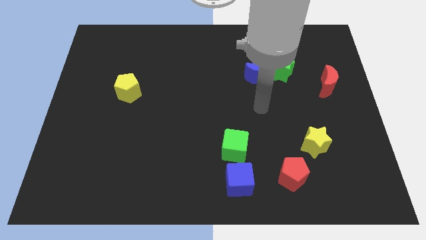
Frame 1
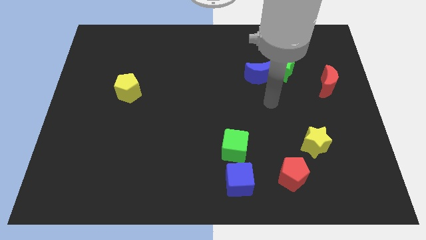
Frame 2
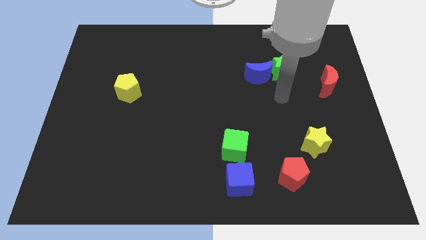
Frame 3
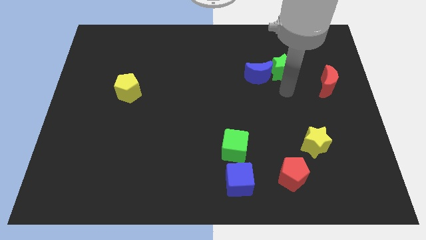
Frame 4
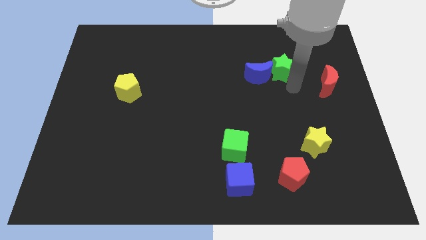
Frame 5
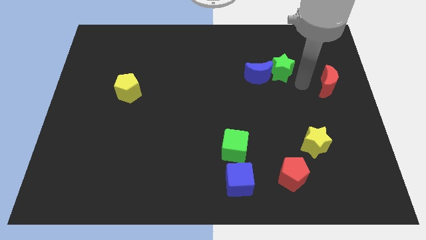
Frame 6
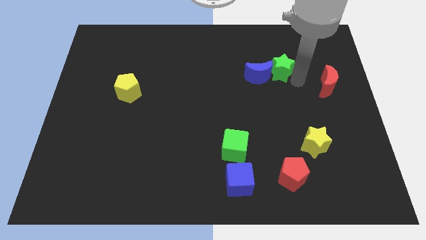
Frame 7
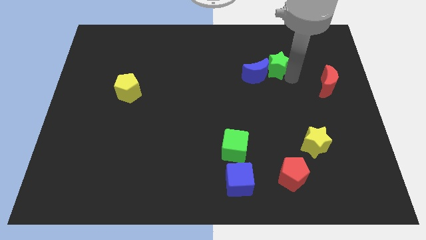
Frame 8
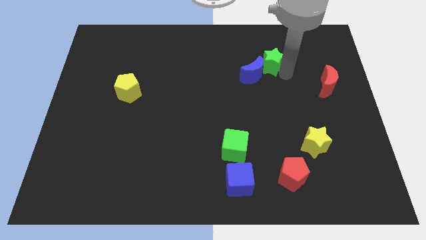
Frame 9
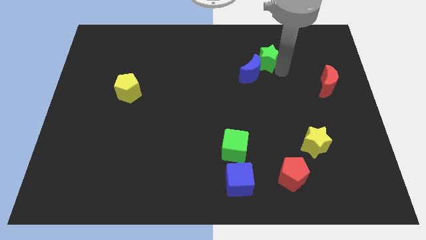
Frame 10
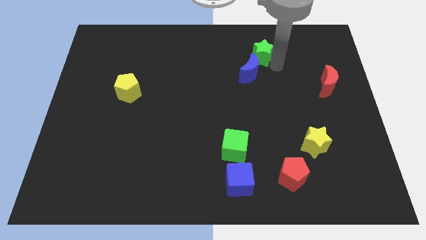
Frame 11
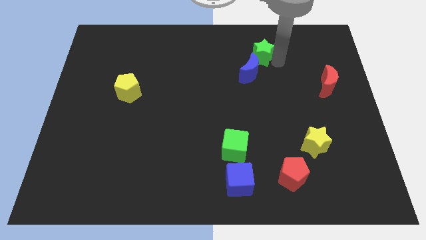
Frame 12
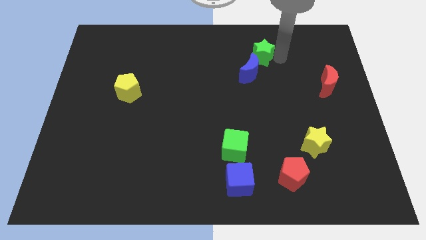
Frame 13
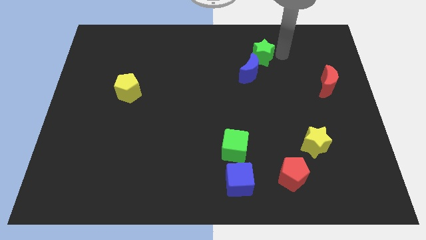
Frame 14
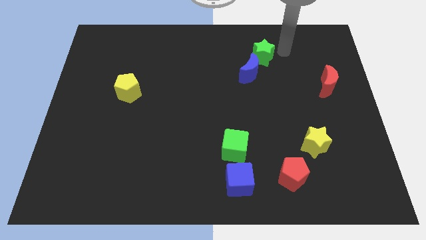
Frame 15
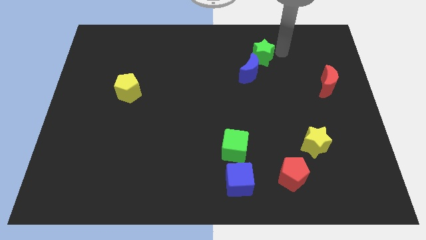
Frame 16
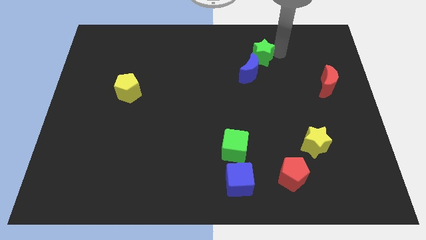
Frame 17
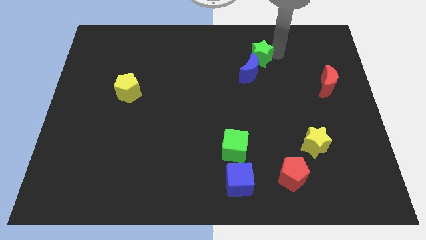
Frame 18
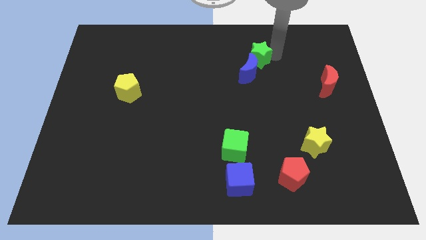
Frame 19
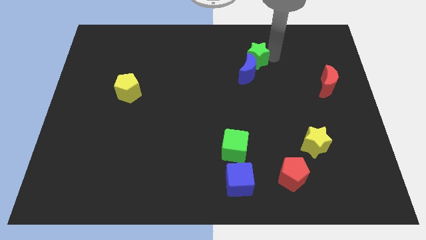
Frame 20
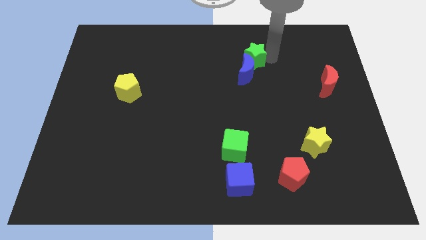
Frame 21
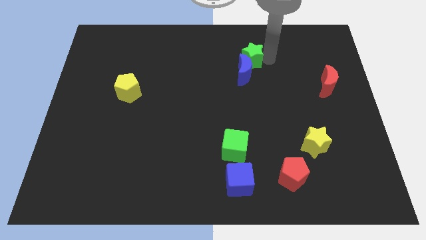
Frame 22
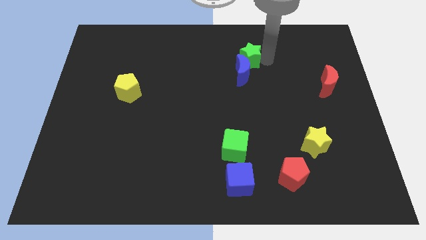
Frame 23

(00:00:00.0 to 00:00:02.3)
slide the green star left a little bit

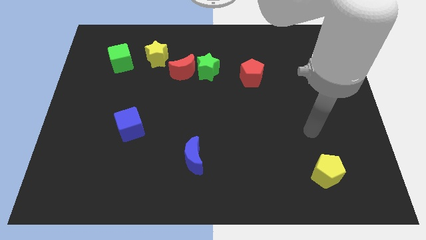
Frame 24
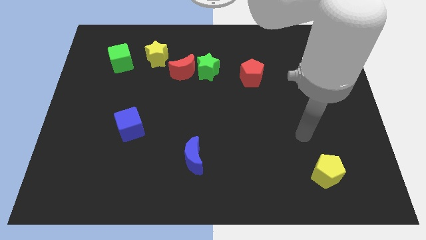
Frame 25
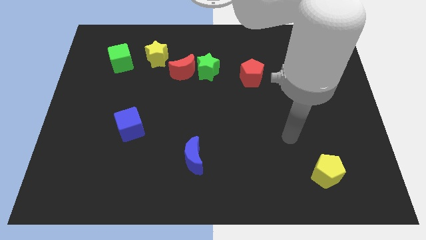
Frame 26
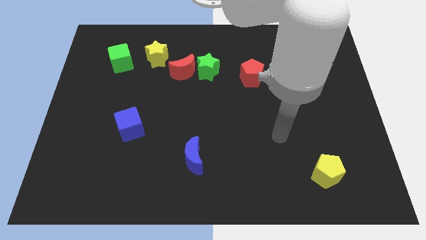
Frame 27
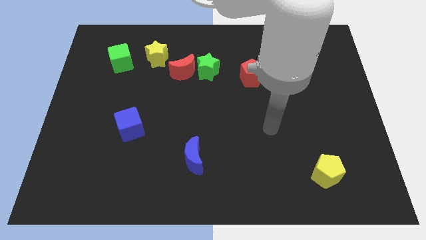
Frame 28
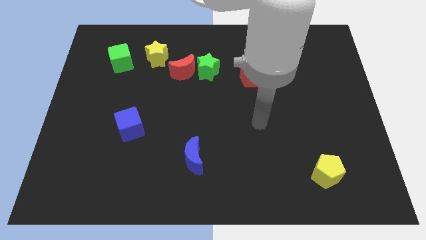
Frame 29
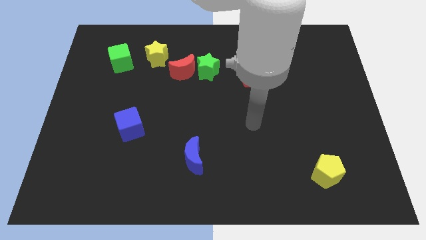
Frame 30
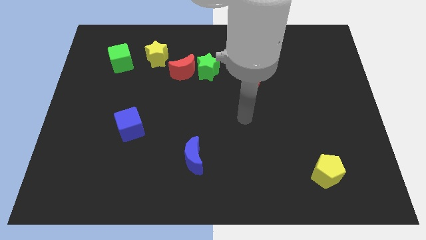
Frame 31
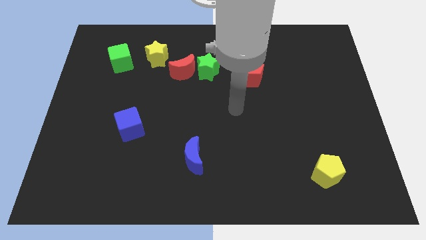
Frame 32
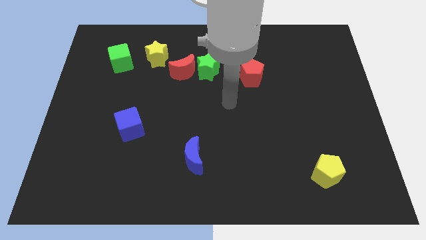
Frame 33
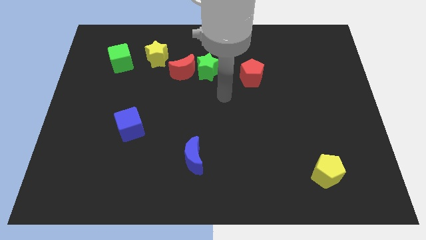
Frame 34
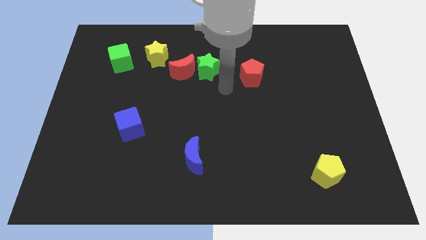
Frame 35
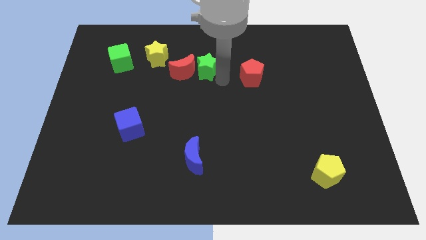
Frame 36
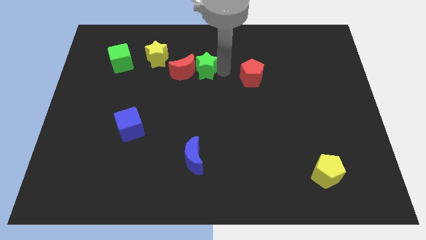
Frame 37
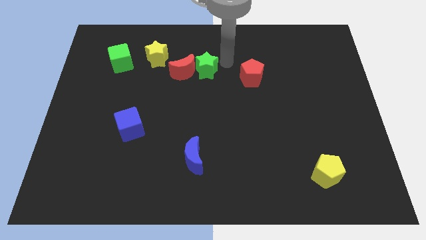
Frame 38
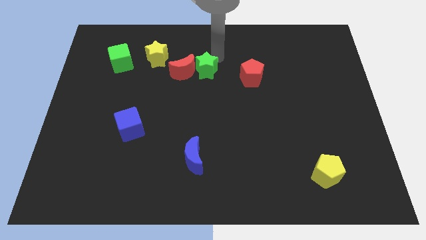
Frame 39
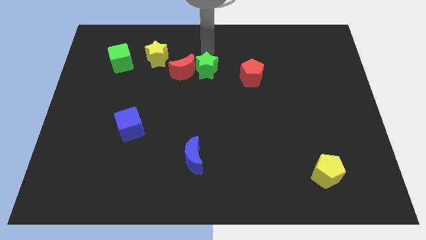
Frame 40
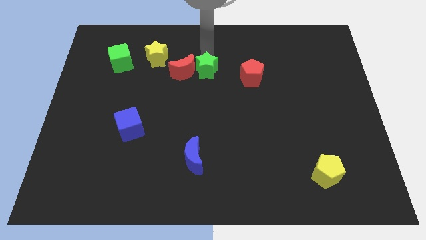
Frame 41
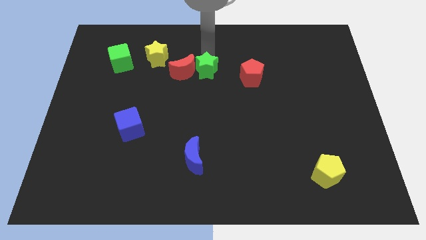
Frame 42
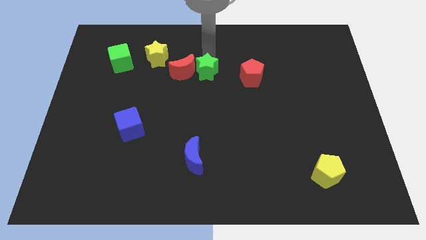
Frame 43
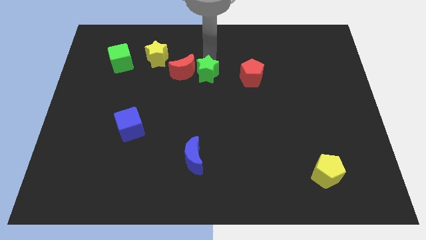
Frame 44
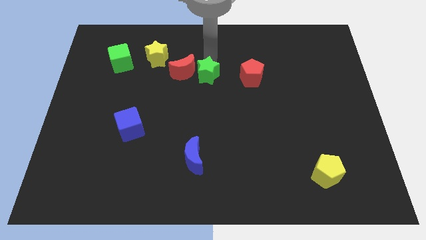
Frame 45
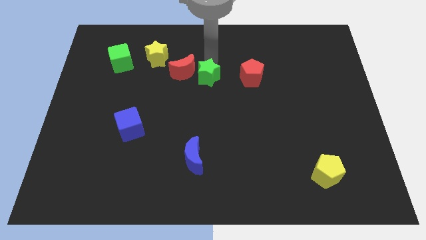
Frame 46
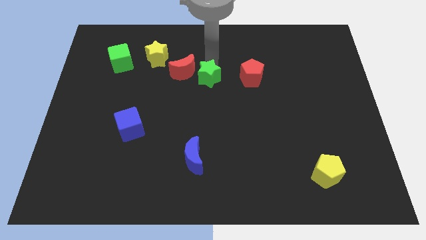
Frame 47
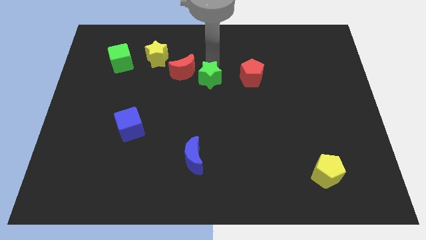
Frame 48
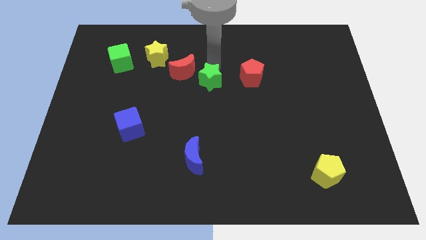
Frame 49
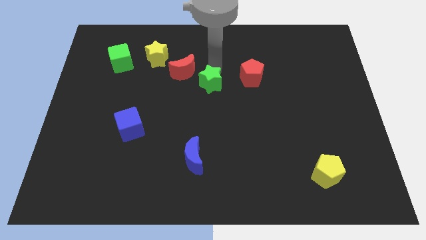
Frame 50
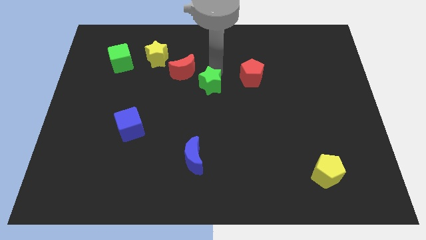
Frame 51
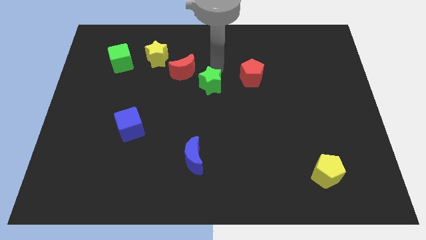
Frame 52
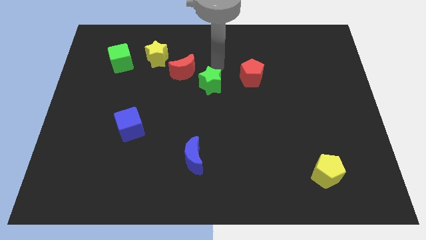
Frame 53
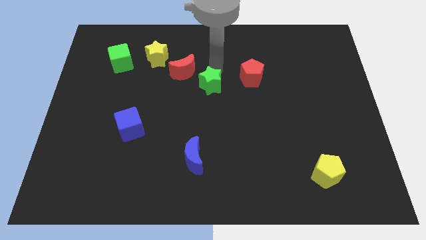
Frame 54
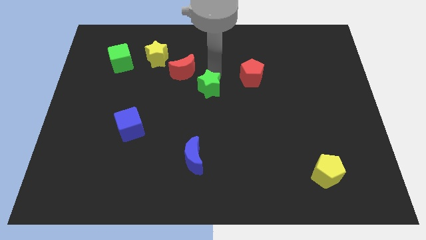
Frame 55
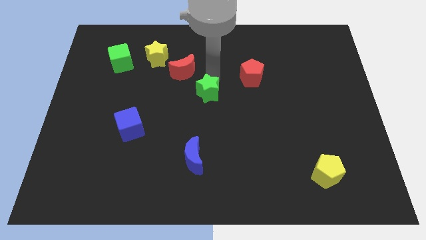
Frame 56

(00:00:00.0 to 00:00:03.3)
move the green star slightly downwards

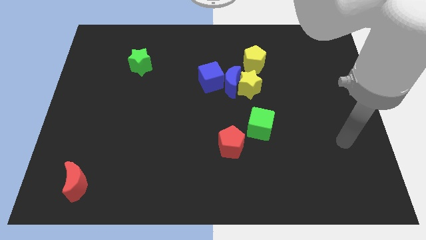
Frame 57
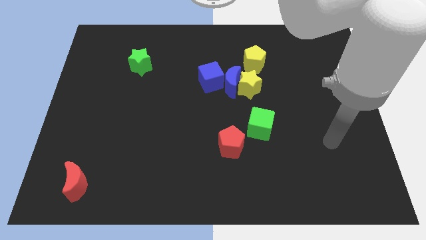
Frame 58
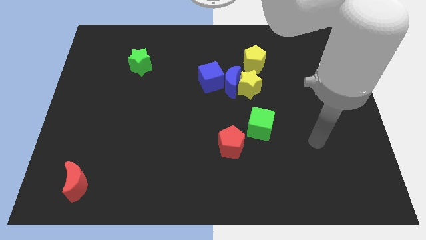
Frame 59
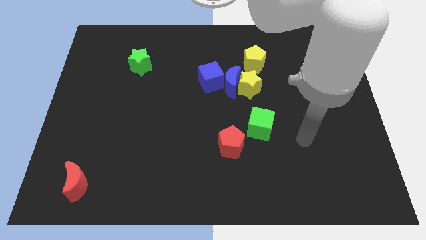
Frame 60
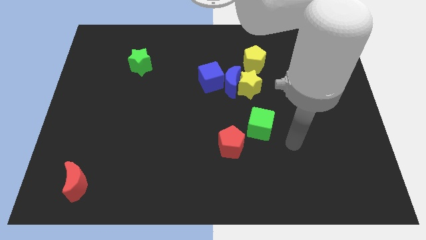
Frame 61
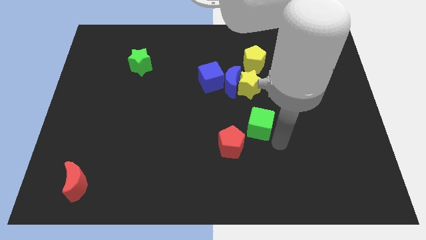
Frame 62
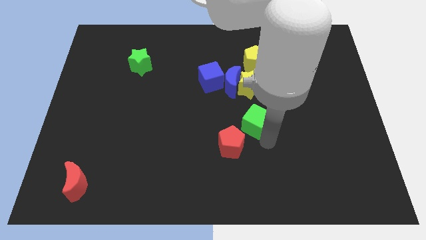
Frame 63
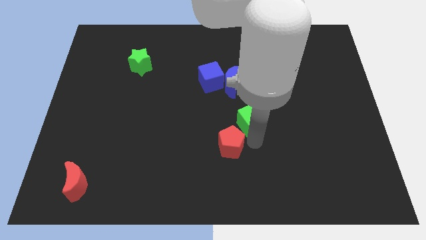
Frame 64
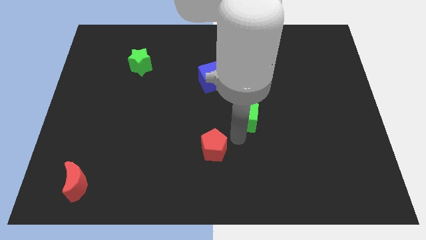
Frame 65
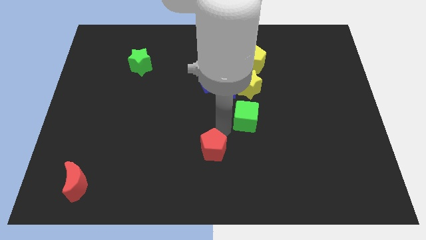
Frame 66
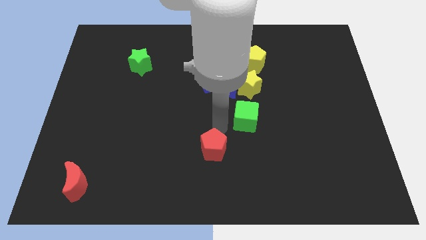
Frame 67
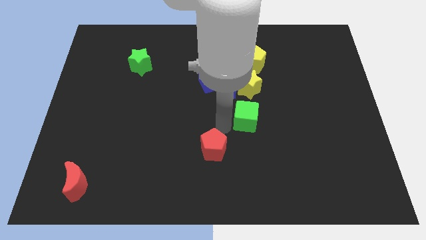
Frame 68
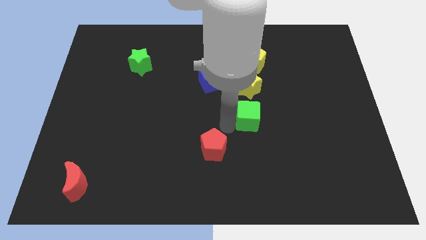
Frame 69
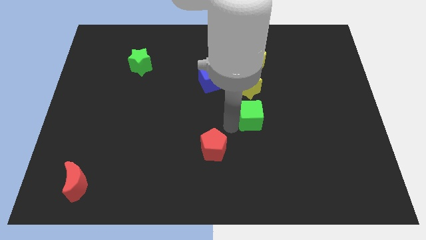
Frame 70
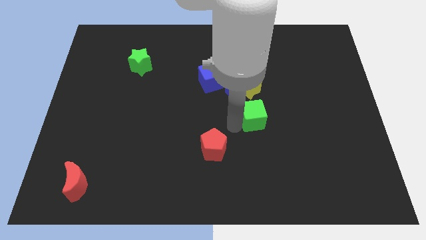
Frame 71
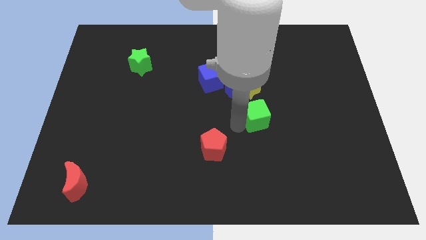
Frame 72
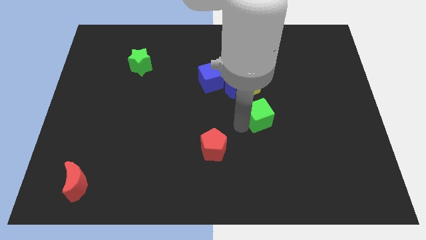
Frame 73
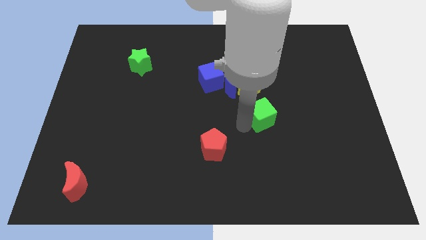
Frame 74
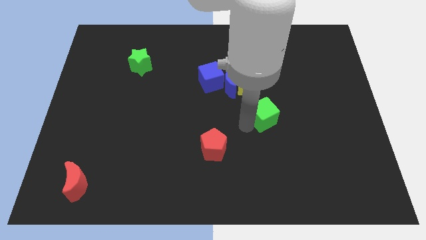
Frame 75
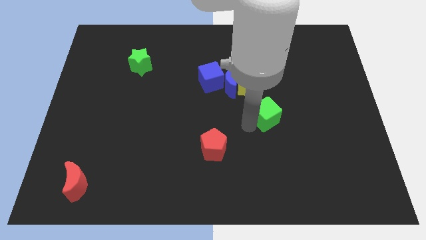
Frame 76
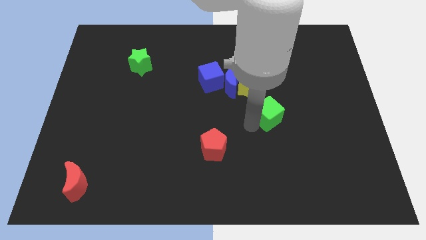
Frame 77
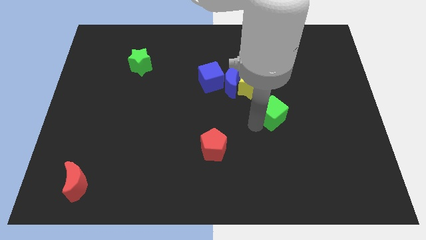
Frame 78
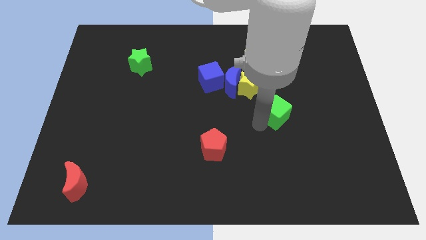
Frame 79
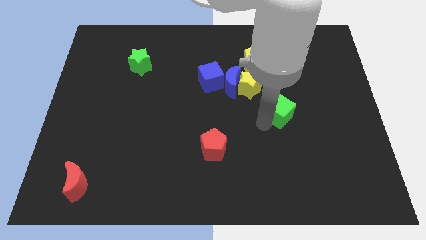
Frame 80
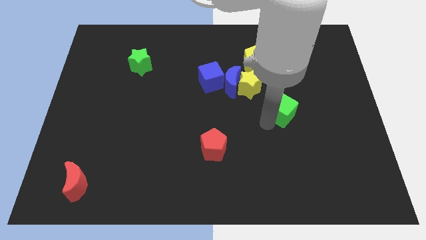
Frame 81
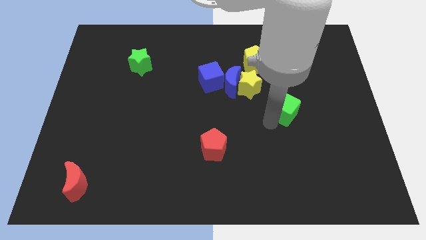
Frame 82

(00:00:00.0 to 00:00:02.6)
slightly slide the green cube diagonally upwards and to the right
